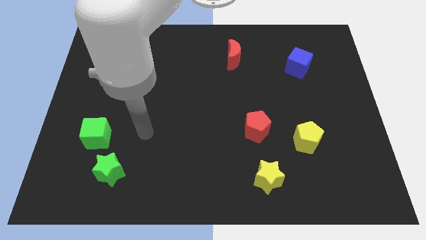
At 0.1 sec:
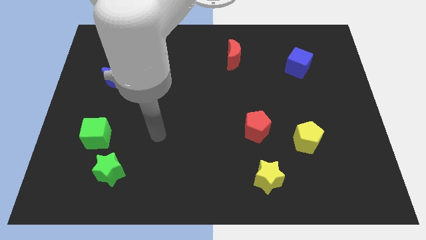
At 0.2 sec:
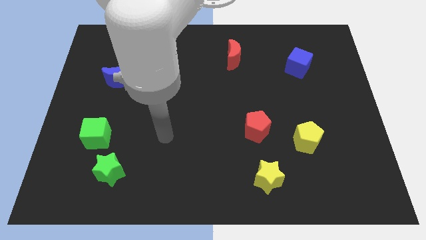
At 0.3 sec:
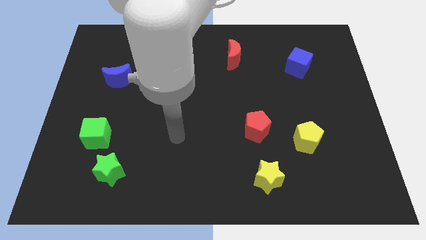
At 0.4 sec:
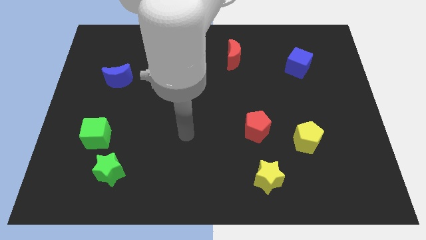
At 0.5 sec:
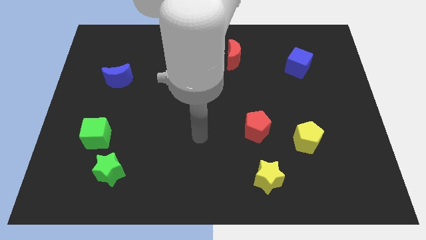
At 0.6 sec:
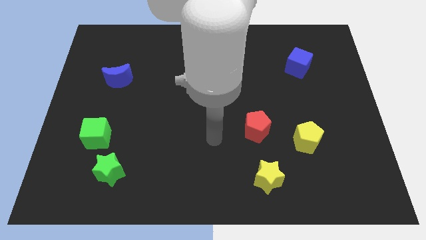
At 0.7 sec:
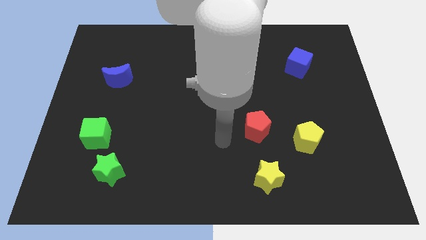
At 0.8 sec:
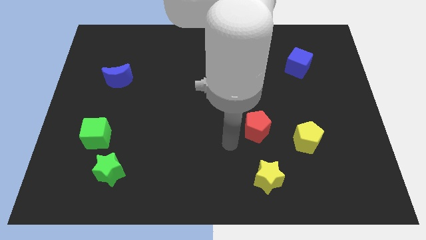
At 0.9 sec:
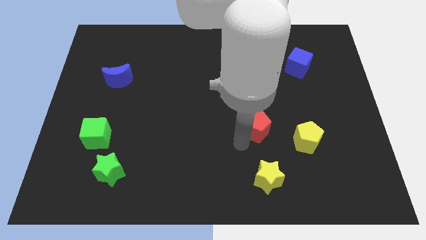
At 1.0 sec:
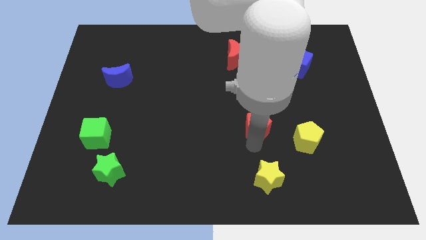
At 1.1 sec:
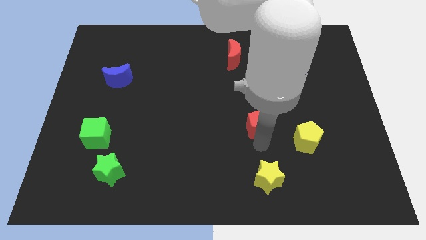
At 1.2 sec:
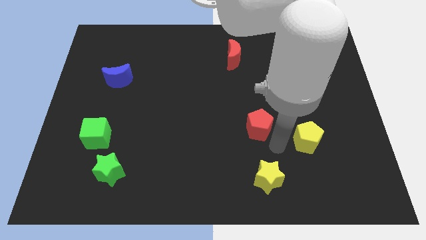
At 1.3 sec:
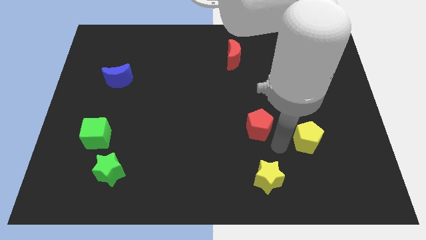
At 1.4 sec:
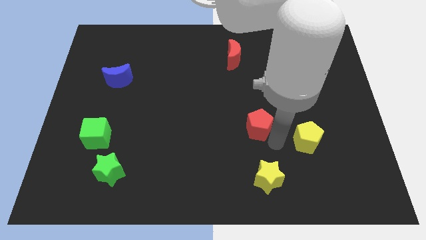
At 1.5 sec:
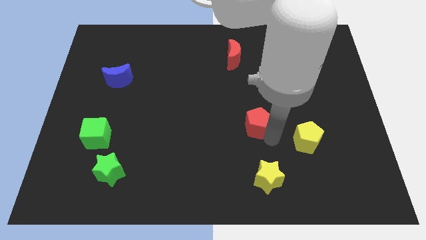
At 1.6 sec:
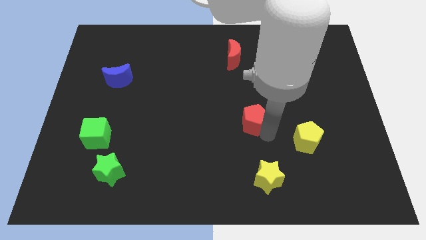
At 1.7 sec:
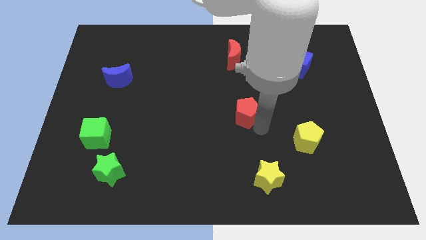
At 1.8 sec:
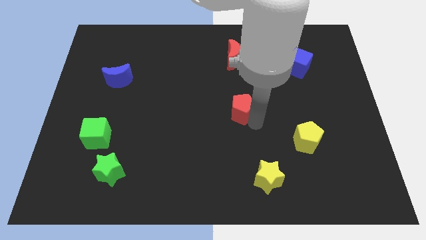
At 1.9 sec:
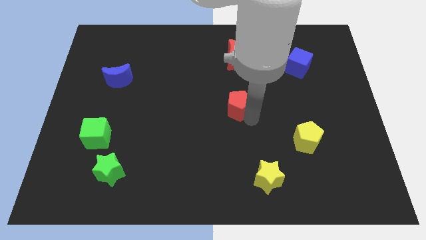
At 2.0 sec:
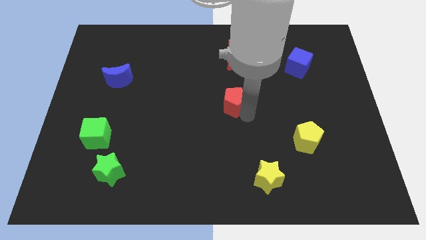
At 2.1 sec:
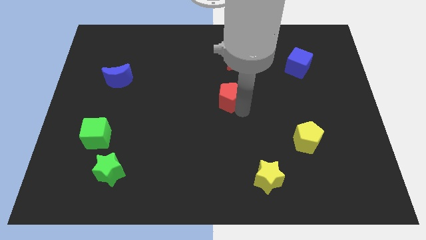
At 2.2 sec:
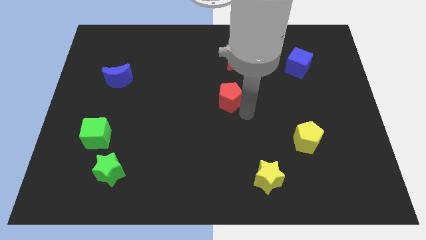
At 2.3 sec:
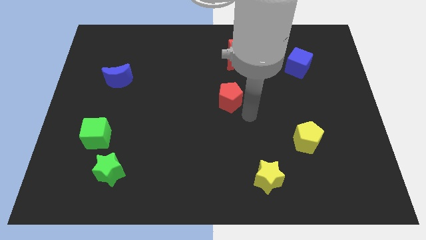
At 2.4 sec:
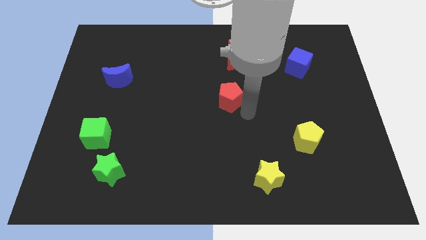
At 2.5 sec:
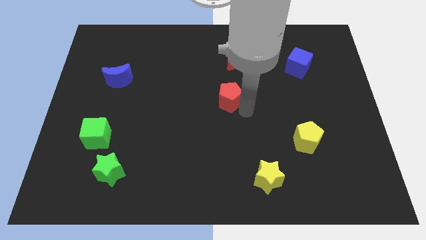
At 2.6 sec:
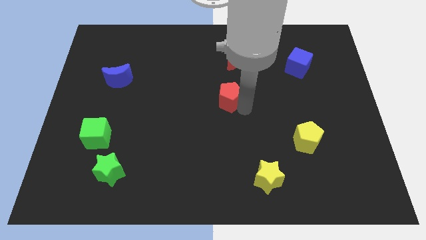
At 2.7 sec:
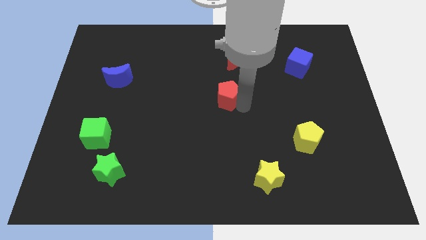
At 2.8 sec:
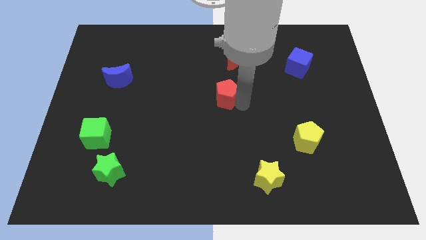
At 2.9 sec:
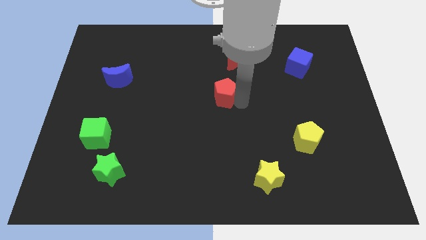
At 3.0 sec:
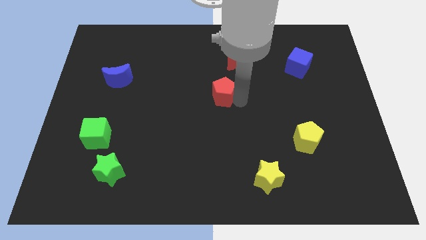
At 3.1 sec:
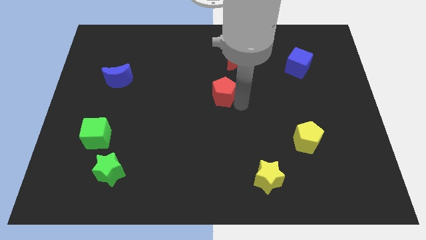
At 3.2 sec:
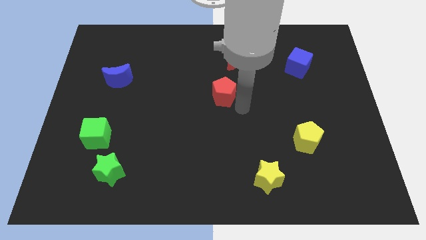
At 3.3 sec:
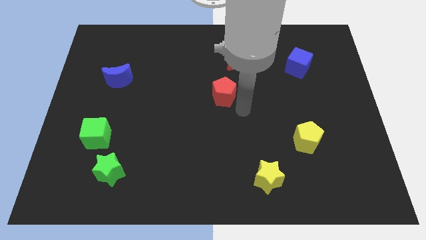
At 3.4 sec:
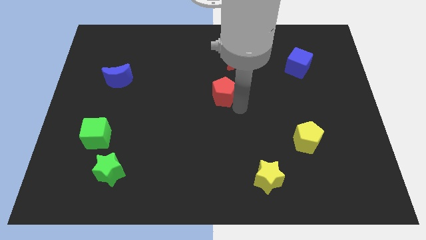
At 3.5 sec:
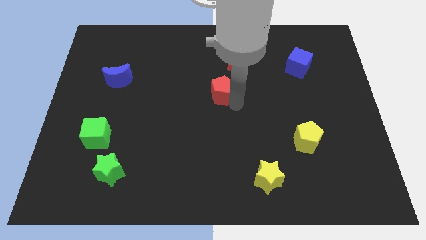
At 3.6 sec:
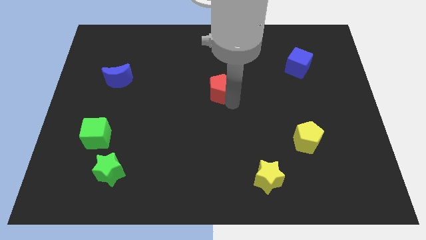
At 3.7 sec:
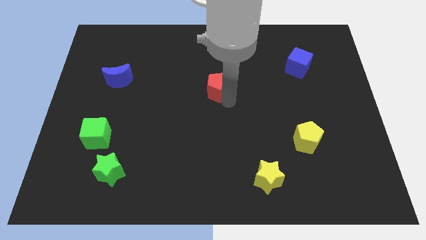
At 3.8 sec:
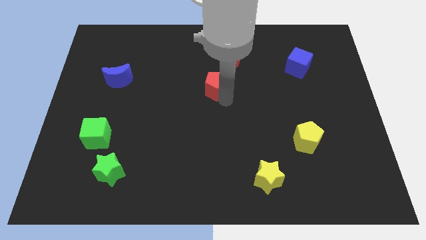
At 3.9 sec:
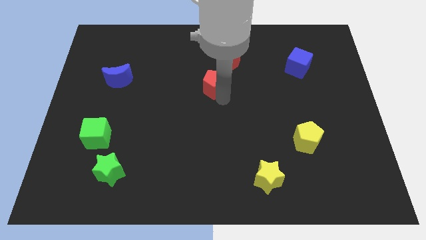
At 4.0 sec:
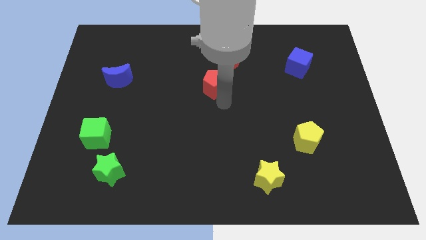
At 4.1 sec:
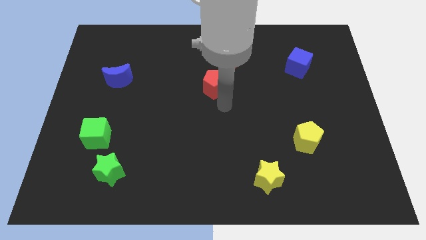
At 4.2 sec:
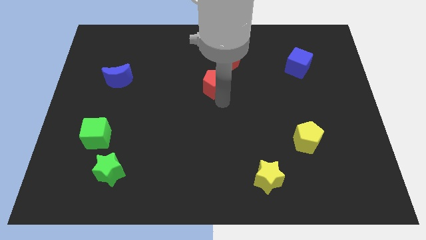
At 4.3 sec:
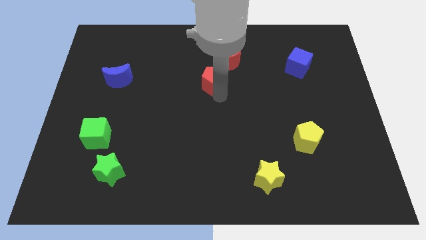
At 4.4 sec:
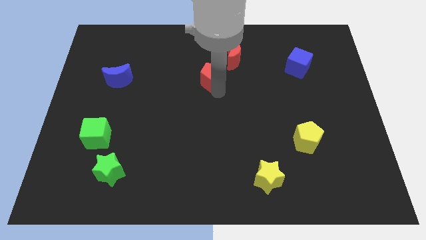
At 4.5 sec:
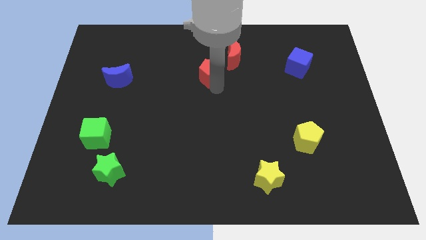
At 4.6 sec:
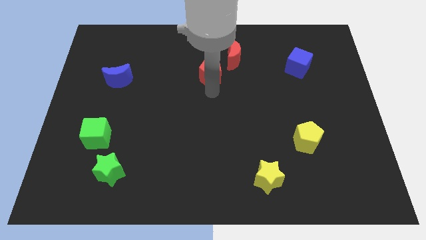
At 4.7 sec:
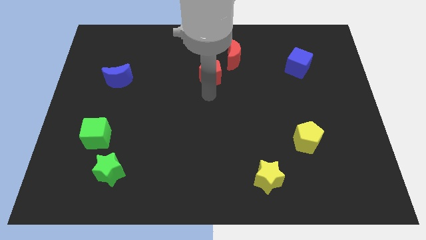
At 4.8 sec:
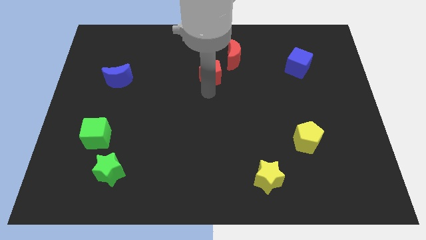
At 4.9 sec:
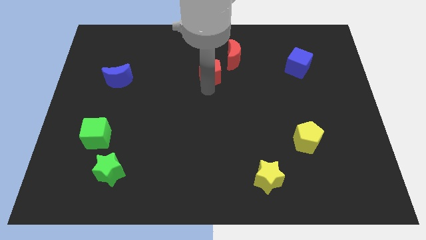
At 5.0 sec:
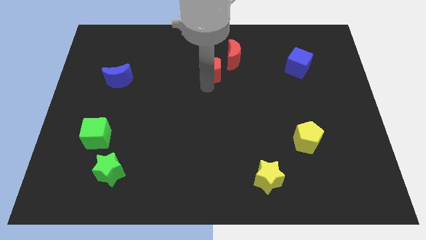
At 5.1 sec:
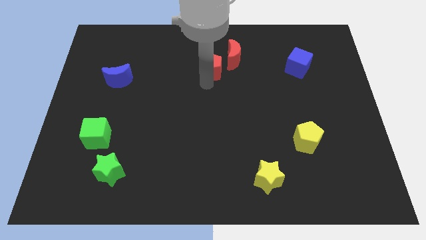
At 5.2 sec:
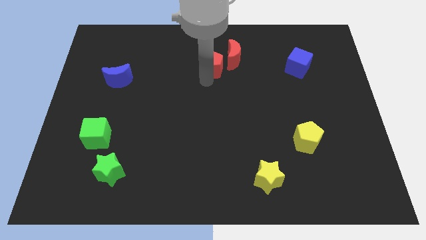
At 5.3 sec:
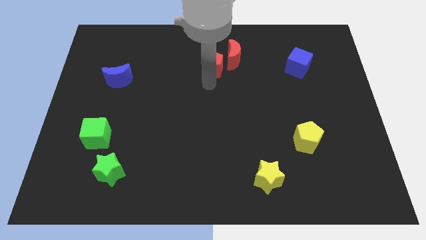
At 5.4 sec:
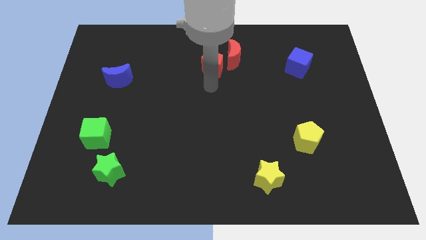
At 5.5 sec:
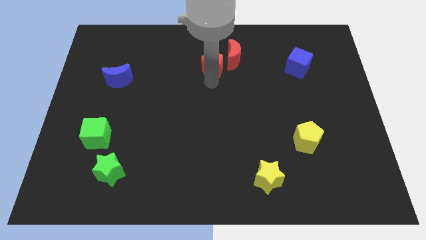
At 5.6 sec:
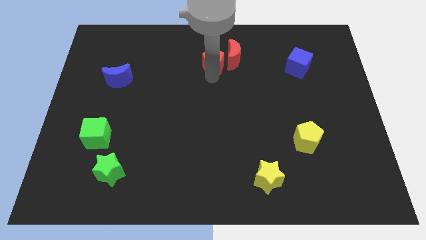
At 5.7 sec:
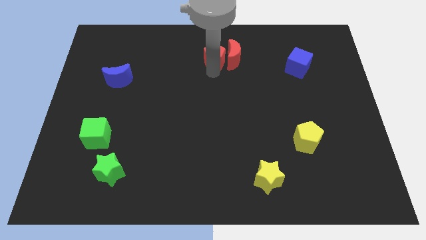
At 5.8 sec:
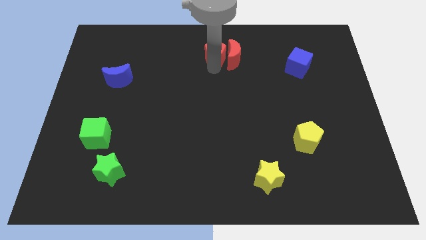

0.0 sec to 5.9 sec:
move the red pentagon to the towards your base
